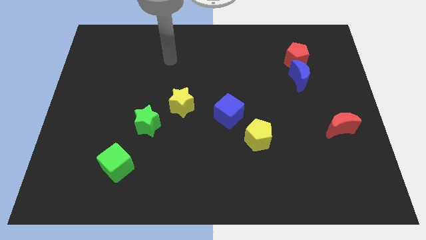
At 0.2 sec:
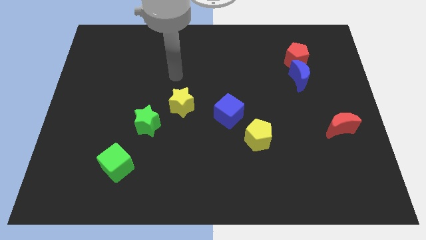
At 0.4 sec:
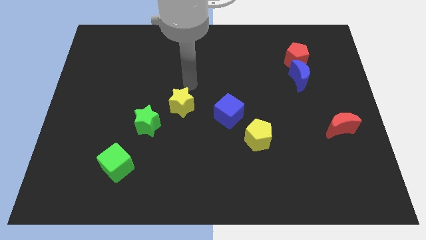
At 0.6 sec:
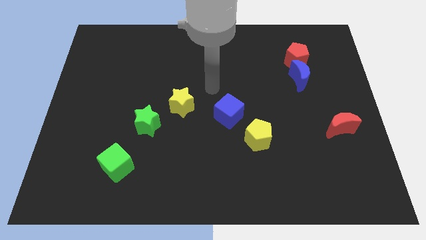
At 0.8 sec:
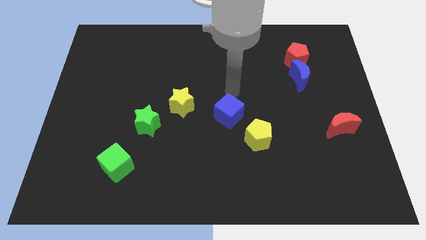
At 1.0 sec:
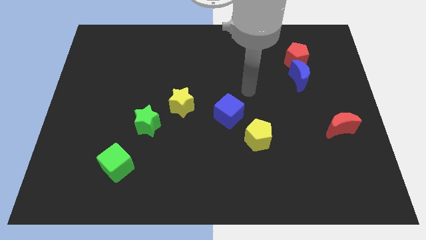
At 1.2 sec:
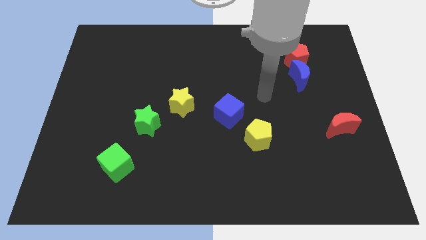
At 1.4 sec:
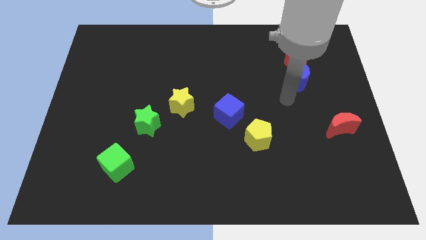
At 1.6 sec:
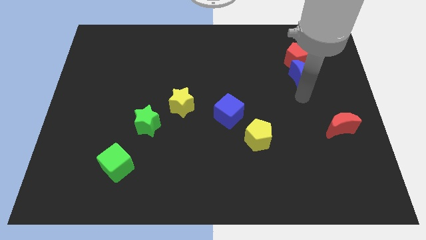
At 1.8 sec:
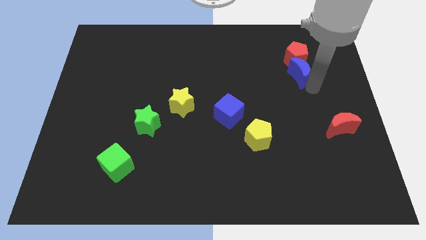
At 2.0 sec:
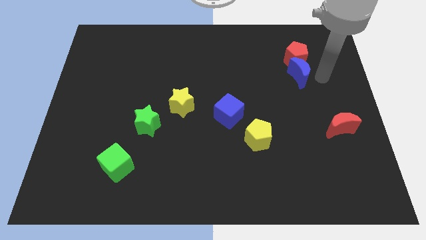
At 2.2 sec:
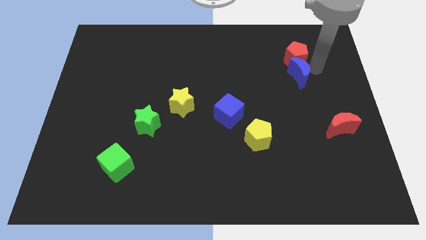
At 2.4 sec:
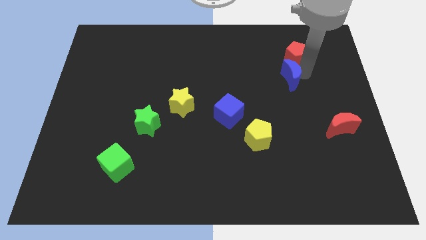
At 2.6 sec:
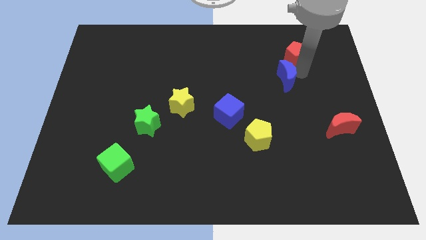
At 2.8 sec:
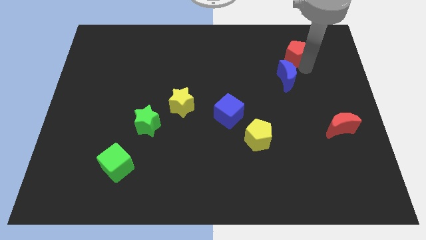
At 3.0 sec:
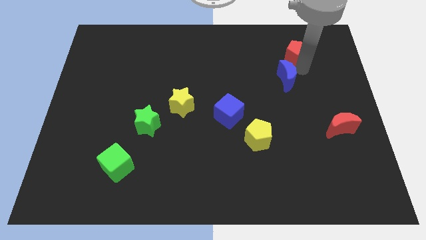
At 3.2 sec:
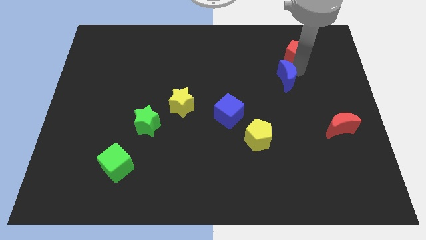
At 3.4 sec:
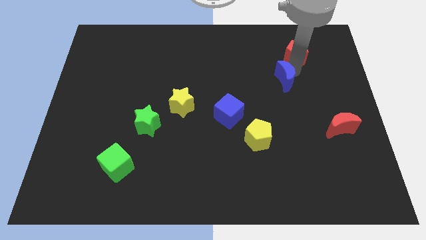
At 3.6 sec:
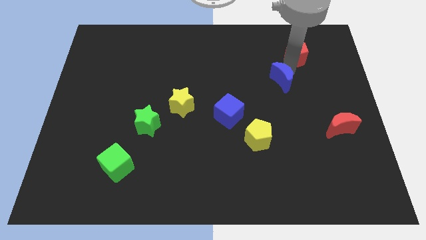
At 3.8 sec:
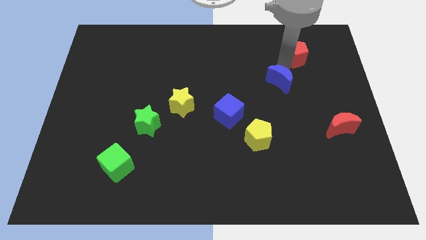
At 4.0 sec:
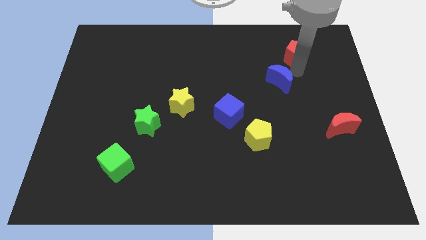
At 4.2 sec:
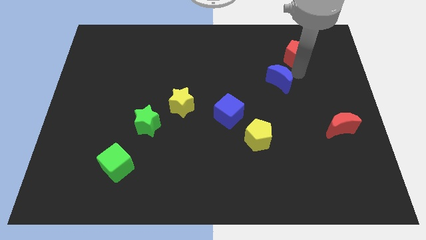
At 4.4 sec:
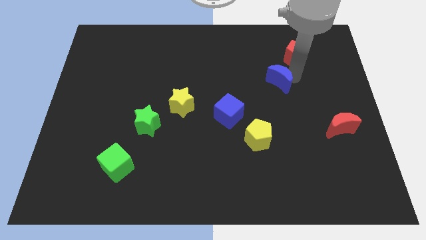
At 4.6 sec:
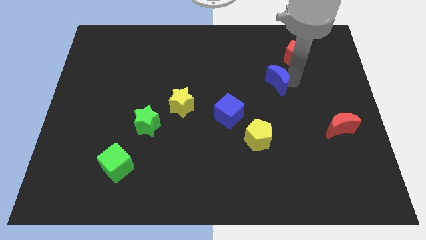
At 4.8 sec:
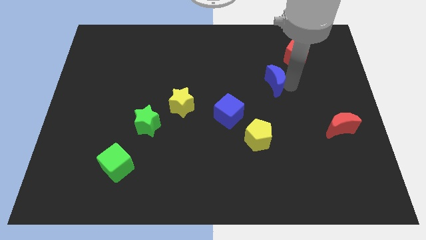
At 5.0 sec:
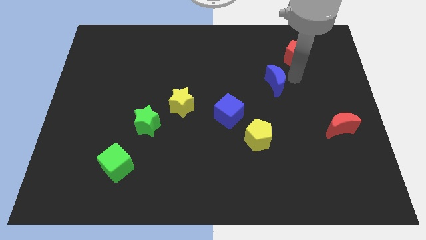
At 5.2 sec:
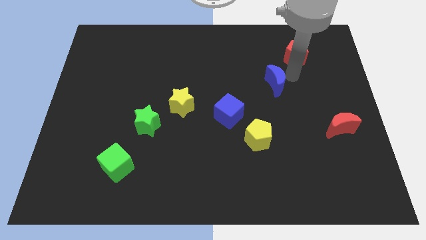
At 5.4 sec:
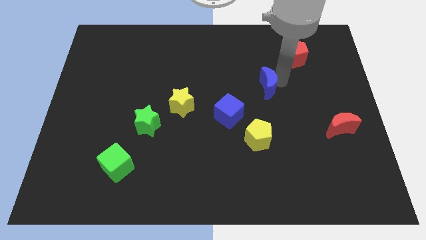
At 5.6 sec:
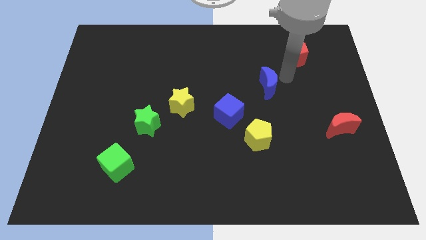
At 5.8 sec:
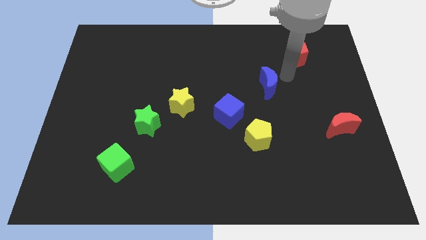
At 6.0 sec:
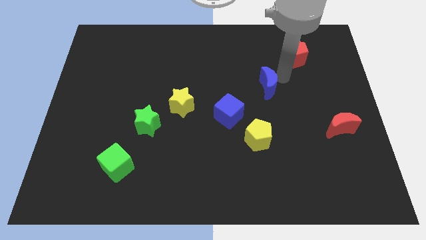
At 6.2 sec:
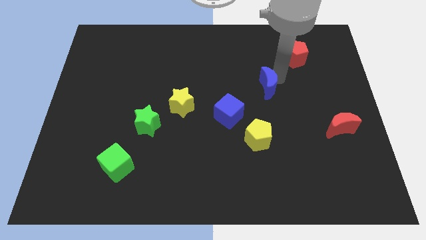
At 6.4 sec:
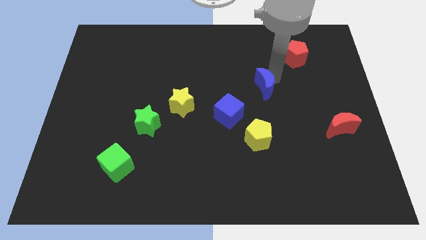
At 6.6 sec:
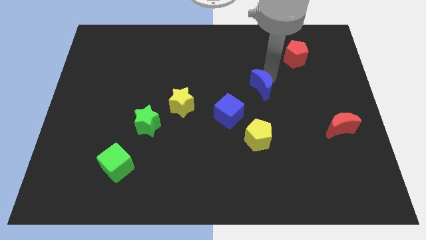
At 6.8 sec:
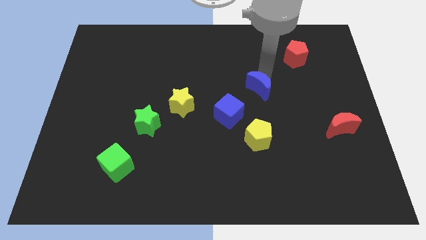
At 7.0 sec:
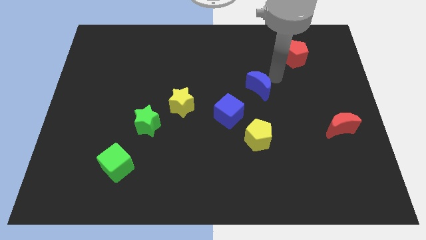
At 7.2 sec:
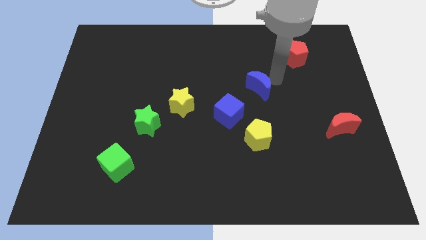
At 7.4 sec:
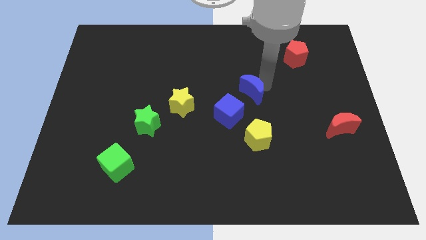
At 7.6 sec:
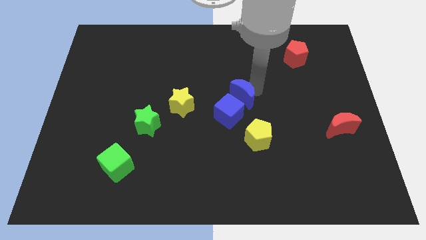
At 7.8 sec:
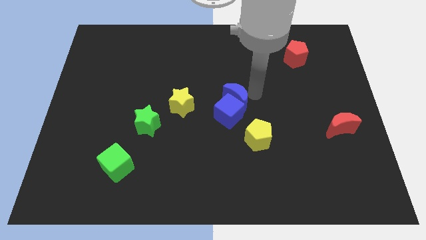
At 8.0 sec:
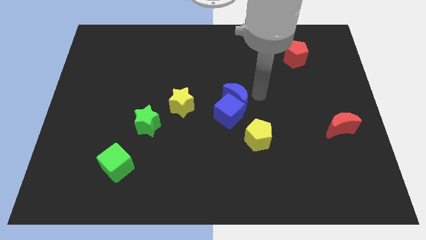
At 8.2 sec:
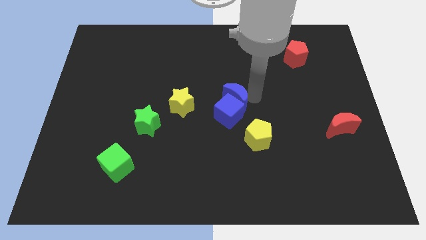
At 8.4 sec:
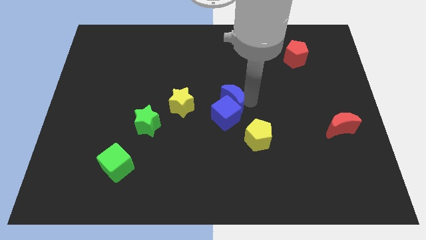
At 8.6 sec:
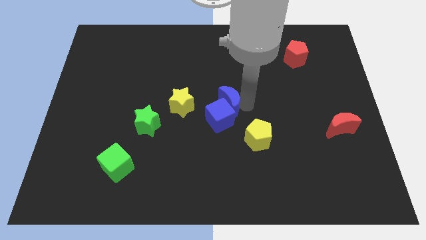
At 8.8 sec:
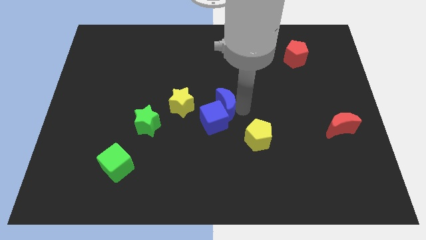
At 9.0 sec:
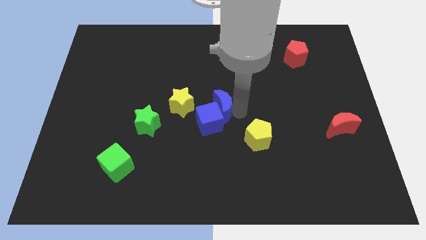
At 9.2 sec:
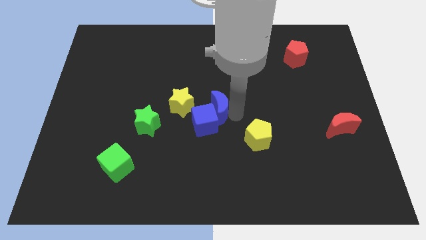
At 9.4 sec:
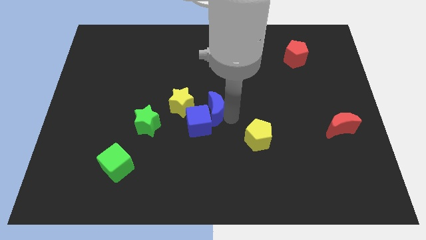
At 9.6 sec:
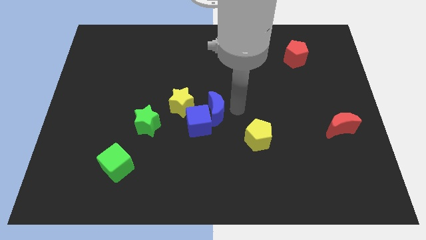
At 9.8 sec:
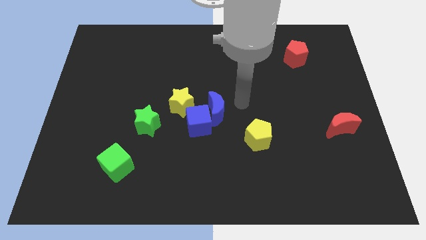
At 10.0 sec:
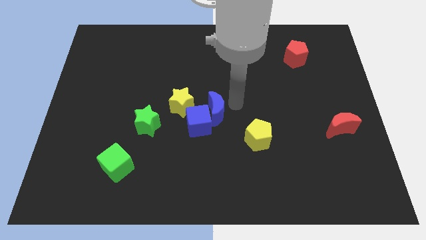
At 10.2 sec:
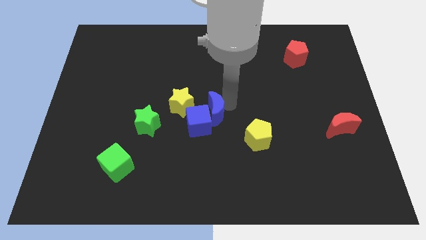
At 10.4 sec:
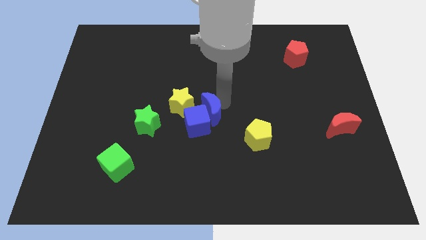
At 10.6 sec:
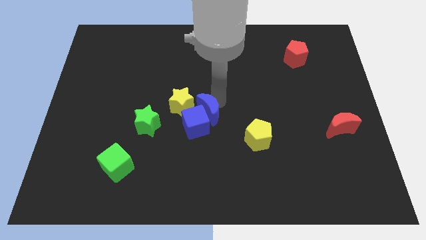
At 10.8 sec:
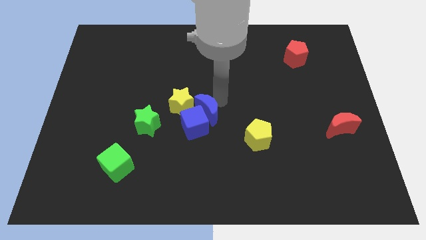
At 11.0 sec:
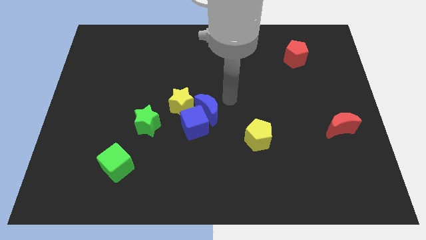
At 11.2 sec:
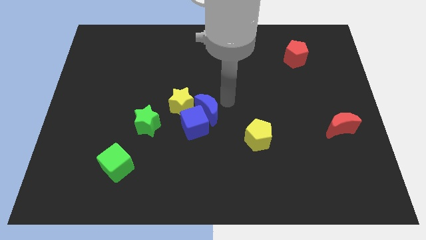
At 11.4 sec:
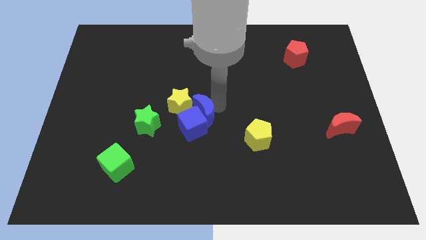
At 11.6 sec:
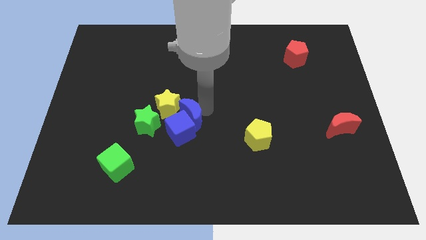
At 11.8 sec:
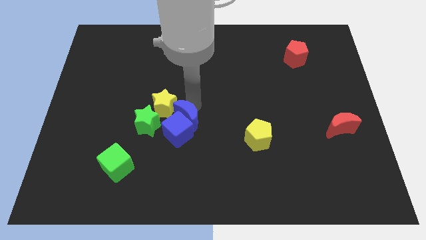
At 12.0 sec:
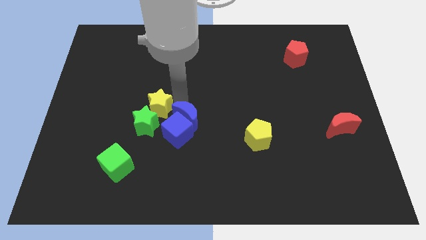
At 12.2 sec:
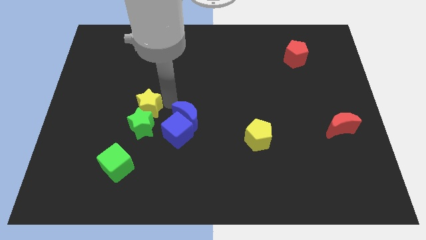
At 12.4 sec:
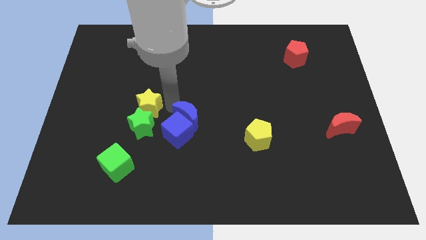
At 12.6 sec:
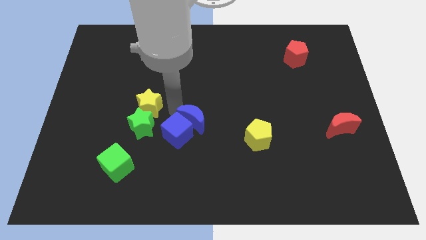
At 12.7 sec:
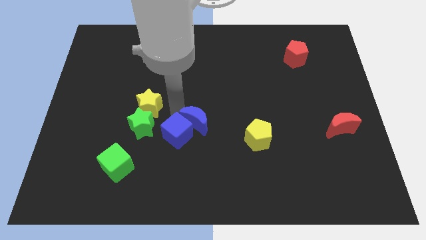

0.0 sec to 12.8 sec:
put the blue moon left of the yellow pentagon
